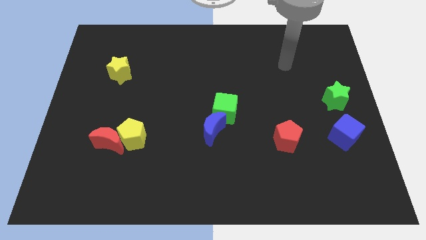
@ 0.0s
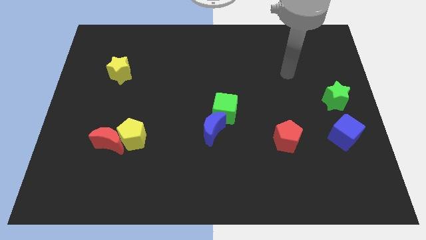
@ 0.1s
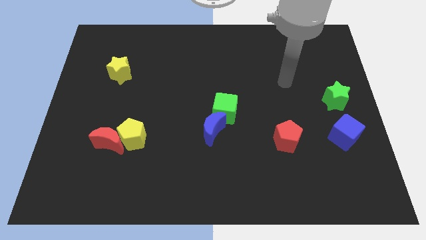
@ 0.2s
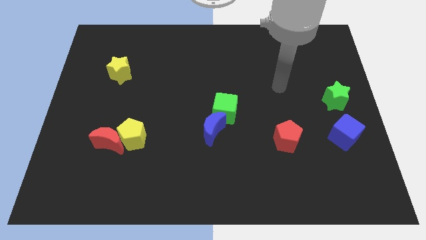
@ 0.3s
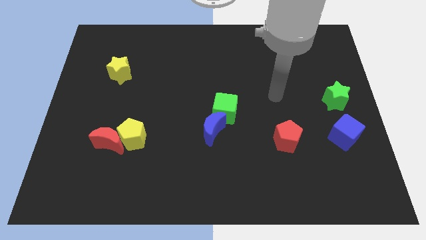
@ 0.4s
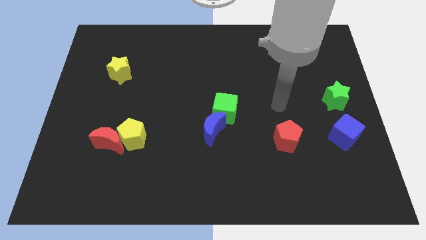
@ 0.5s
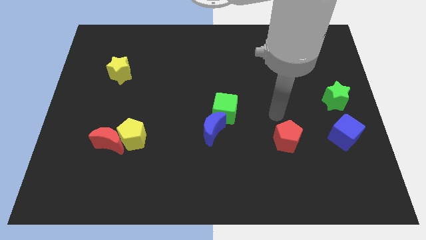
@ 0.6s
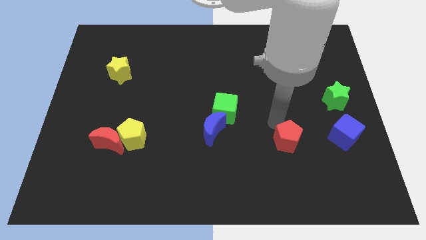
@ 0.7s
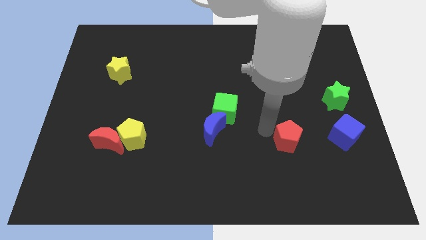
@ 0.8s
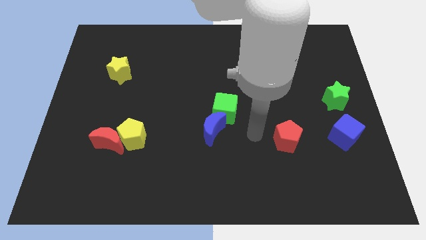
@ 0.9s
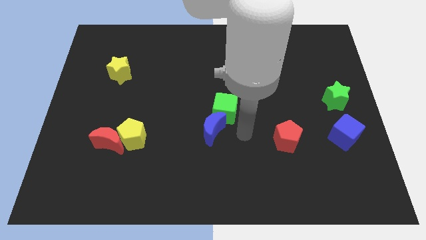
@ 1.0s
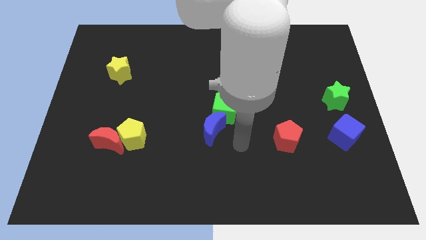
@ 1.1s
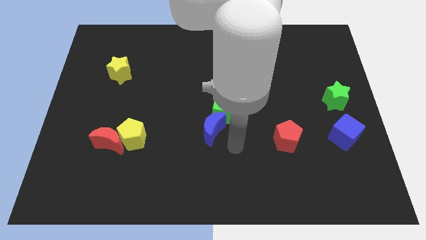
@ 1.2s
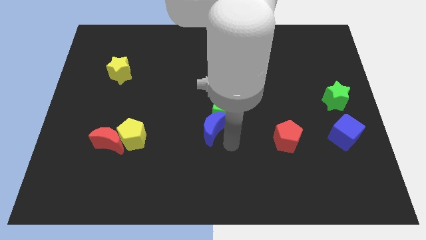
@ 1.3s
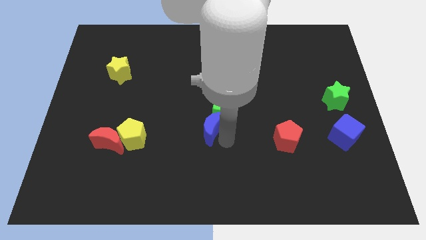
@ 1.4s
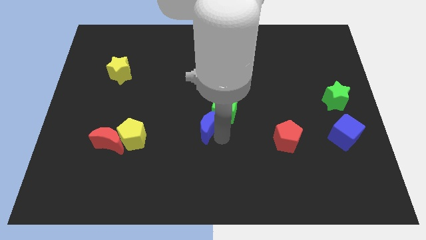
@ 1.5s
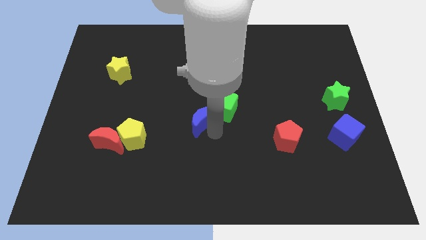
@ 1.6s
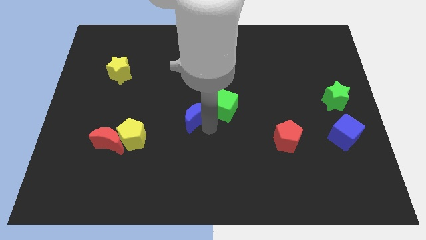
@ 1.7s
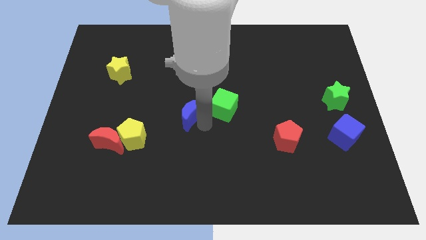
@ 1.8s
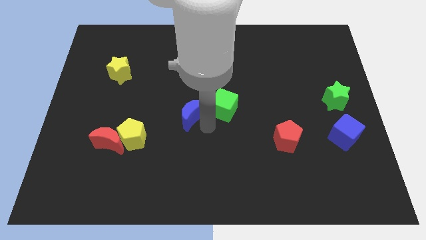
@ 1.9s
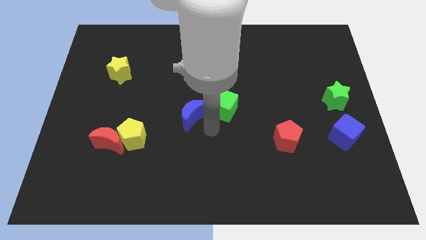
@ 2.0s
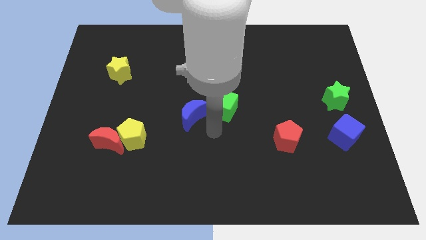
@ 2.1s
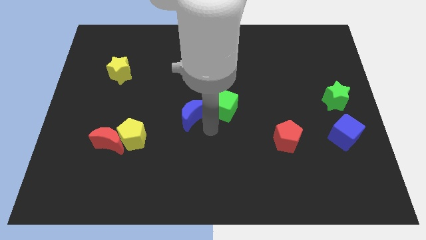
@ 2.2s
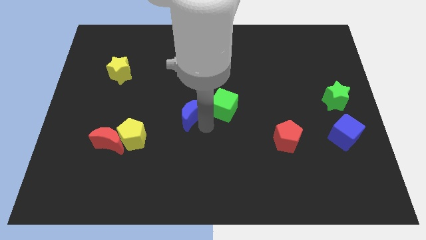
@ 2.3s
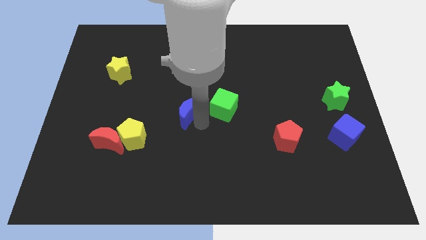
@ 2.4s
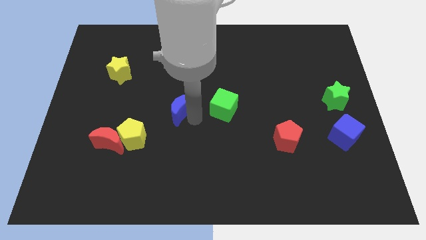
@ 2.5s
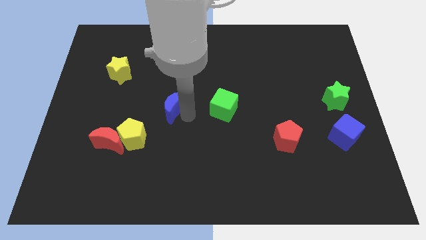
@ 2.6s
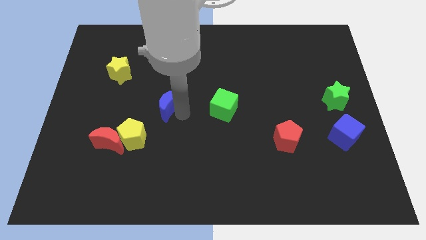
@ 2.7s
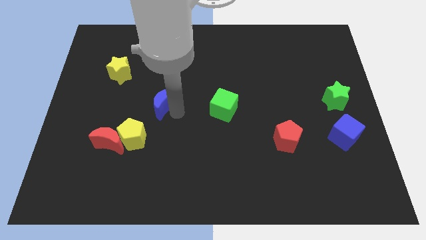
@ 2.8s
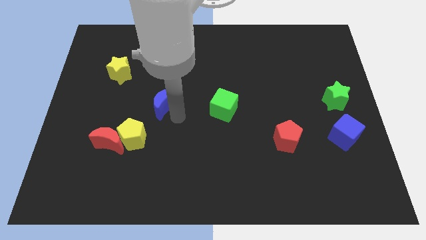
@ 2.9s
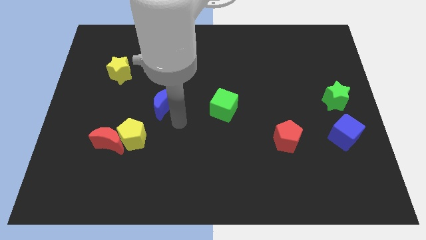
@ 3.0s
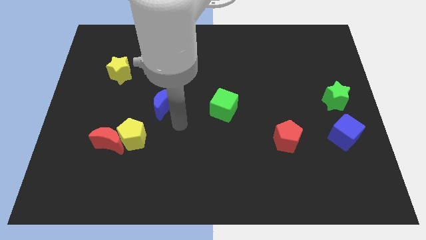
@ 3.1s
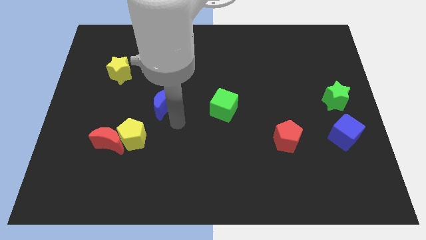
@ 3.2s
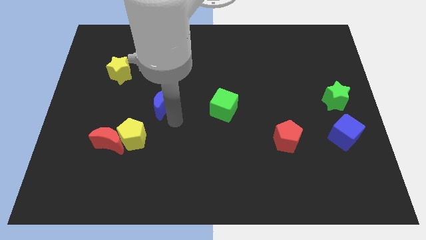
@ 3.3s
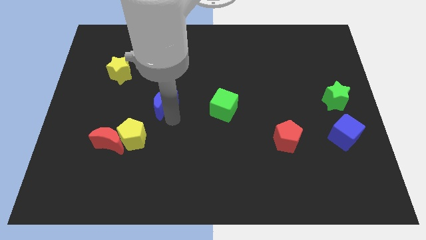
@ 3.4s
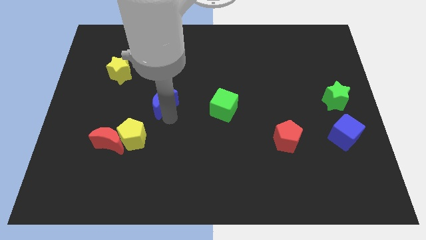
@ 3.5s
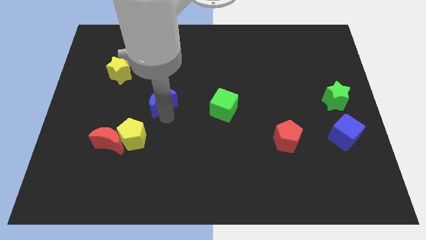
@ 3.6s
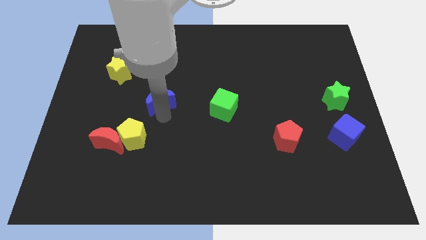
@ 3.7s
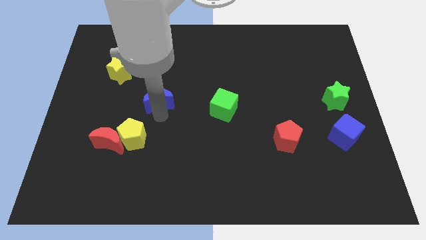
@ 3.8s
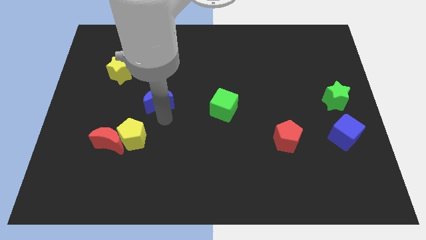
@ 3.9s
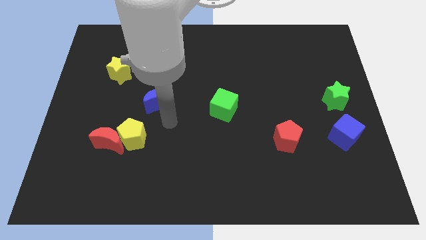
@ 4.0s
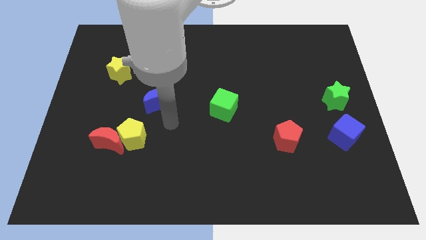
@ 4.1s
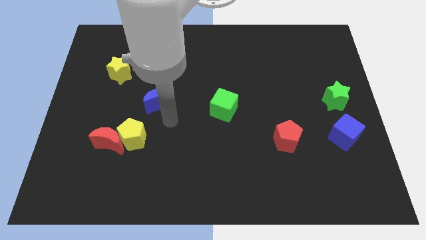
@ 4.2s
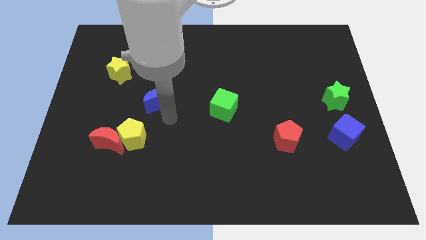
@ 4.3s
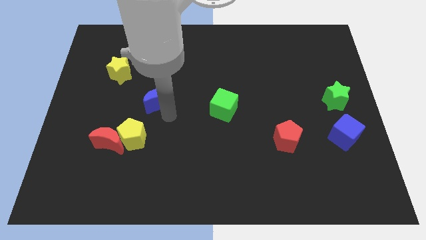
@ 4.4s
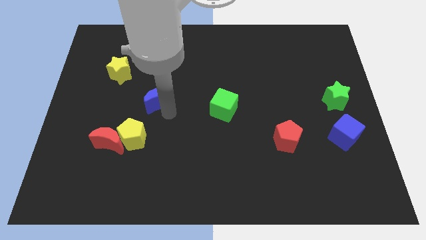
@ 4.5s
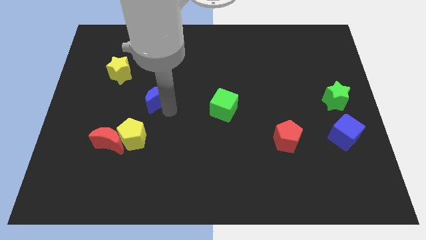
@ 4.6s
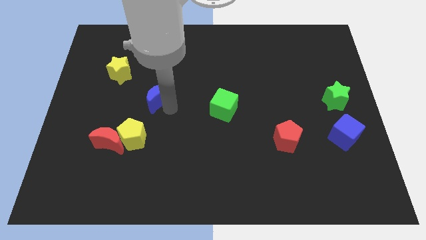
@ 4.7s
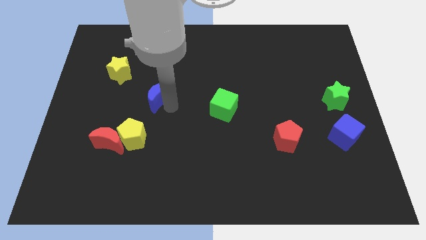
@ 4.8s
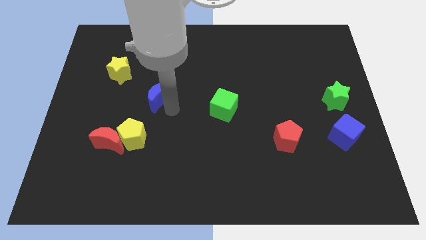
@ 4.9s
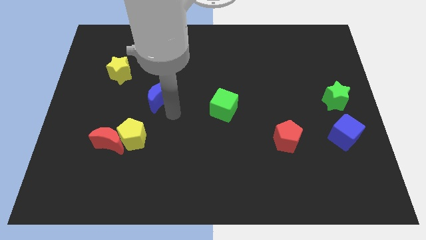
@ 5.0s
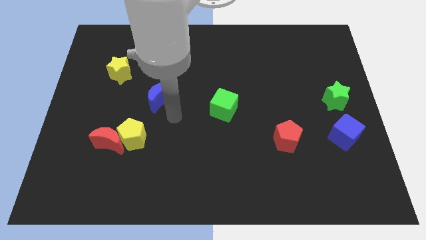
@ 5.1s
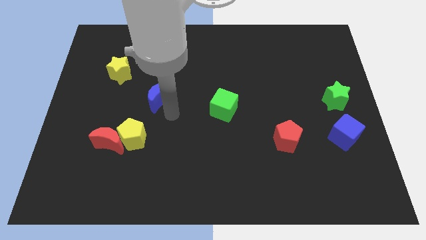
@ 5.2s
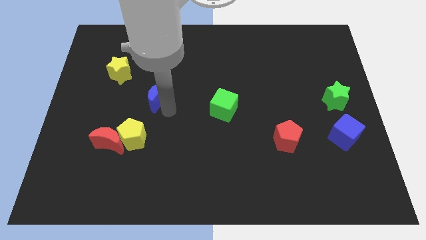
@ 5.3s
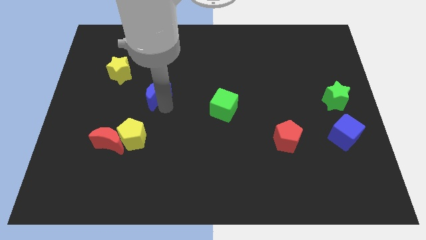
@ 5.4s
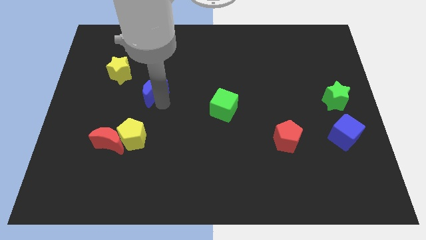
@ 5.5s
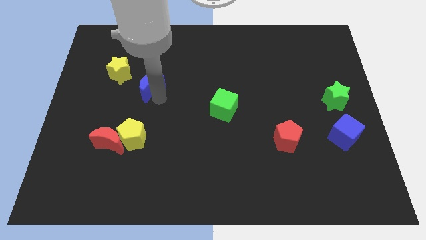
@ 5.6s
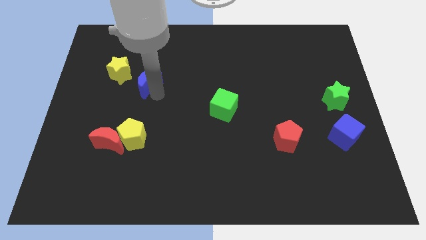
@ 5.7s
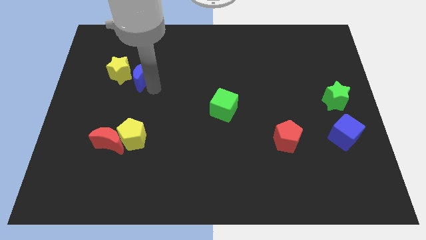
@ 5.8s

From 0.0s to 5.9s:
move the blue moon next to the yellow star

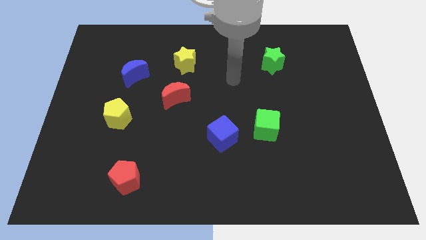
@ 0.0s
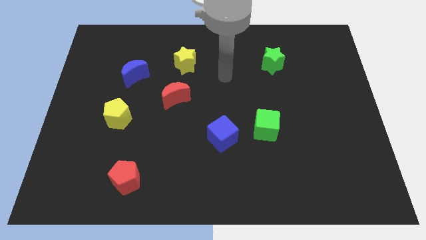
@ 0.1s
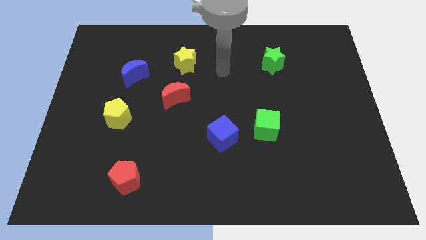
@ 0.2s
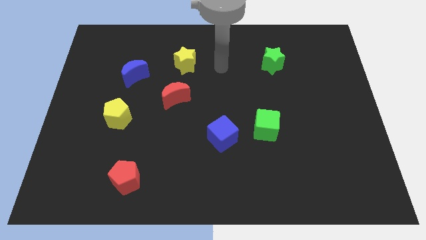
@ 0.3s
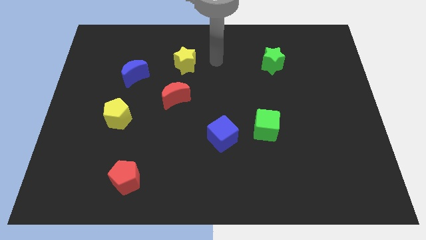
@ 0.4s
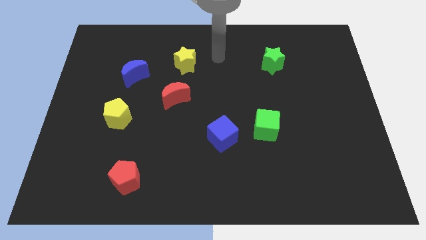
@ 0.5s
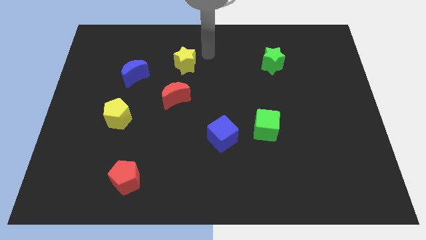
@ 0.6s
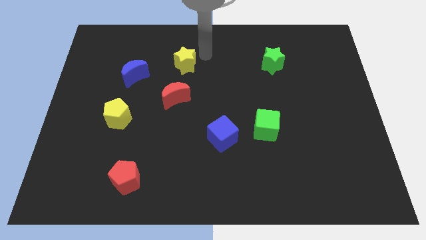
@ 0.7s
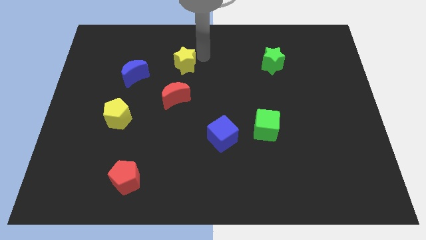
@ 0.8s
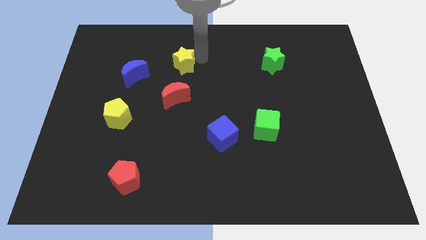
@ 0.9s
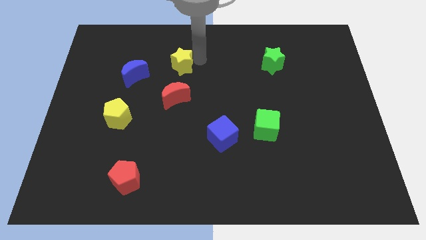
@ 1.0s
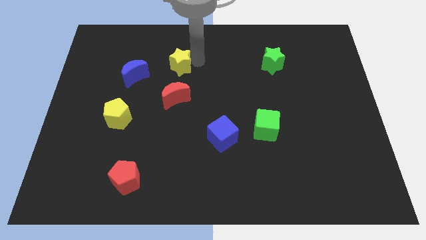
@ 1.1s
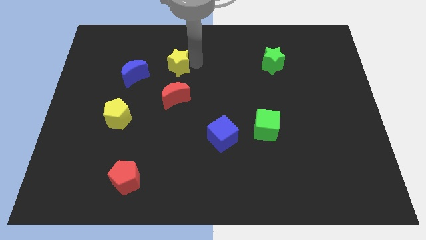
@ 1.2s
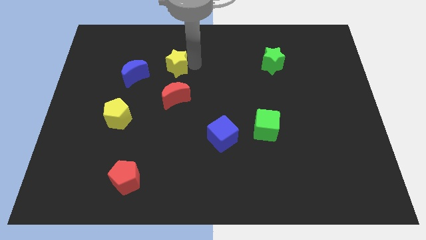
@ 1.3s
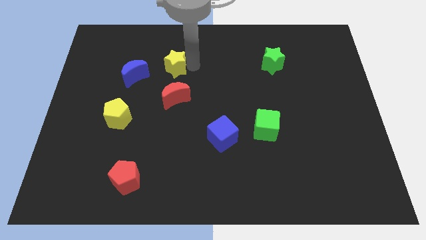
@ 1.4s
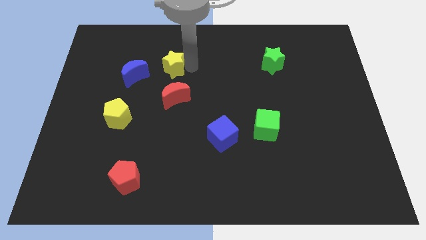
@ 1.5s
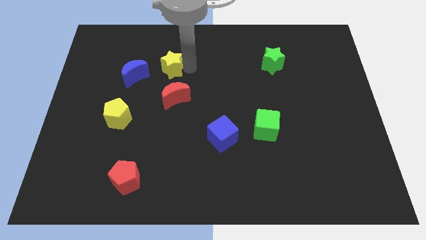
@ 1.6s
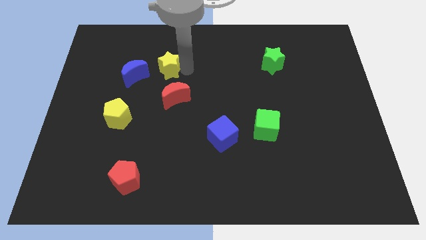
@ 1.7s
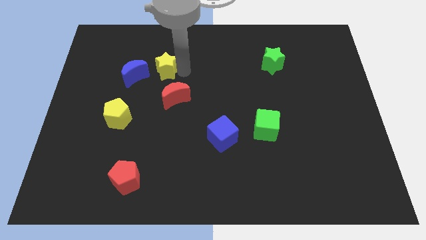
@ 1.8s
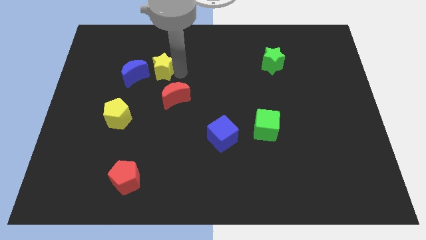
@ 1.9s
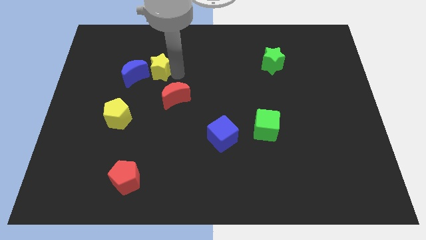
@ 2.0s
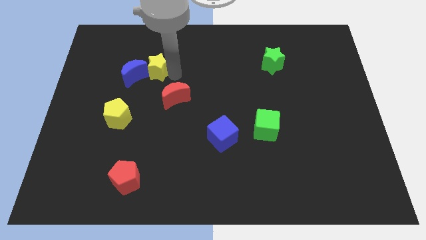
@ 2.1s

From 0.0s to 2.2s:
slide the yellow star to the blue moon
